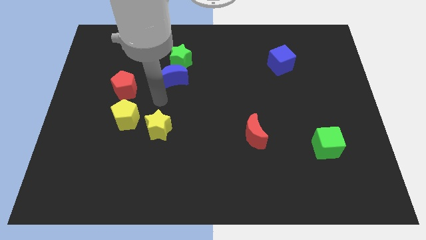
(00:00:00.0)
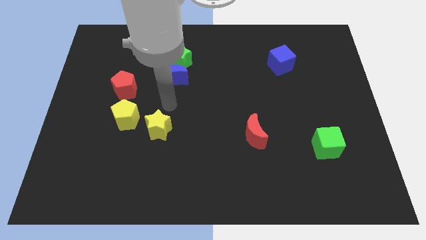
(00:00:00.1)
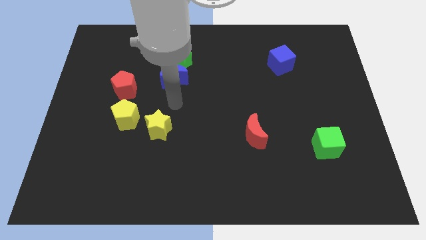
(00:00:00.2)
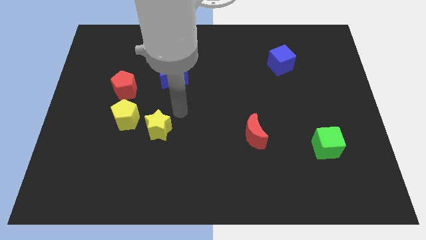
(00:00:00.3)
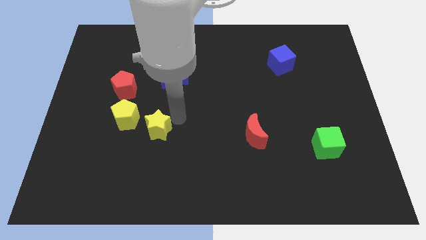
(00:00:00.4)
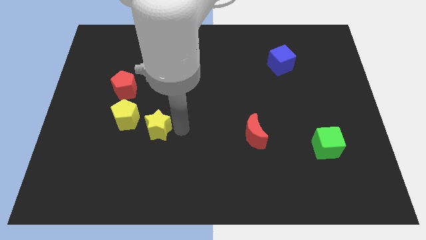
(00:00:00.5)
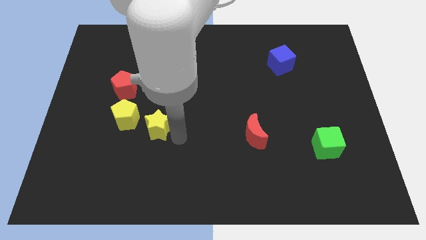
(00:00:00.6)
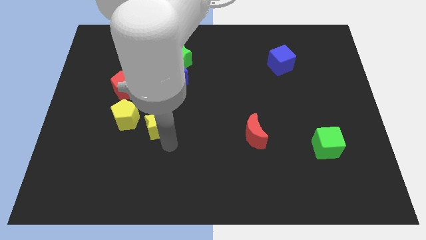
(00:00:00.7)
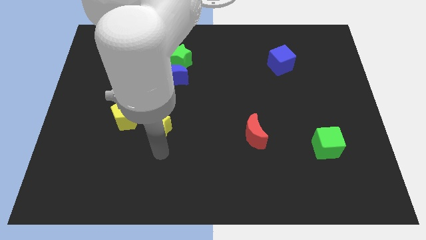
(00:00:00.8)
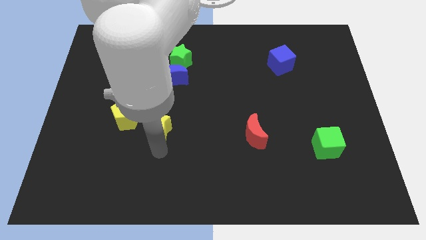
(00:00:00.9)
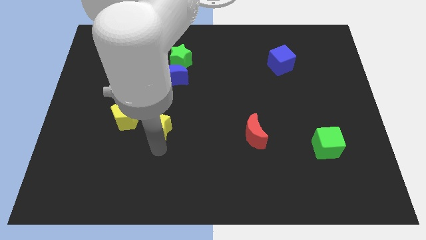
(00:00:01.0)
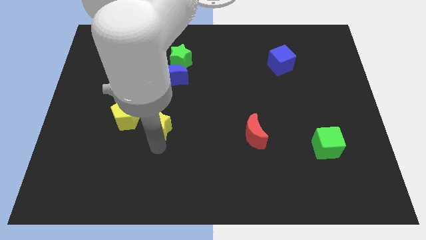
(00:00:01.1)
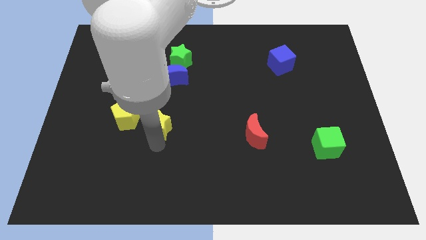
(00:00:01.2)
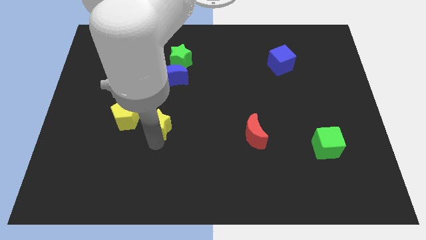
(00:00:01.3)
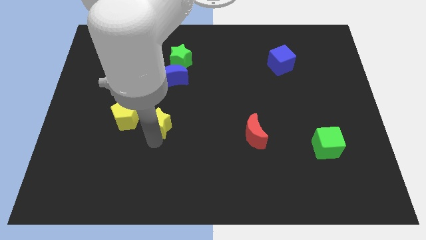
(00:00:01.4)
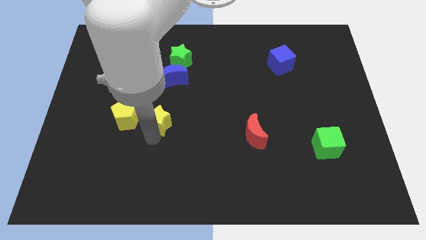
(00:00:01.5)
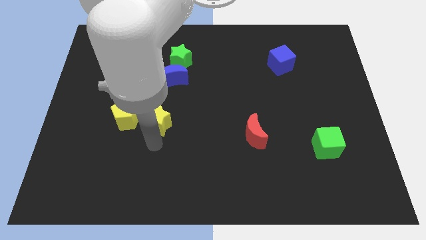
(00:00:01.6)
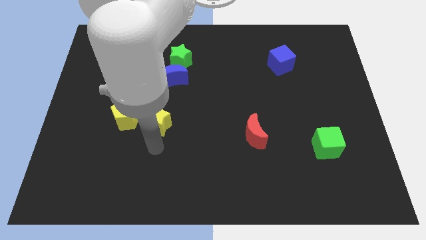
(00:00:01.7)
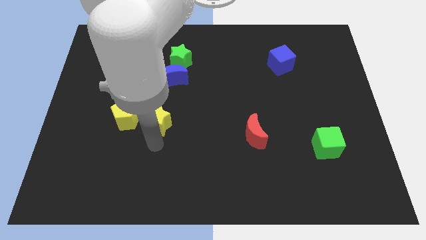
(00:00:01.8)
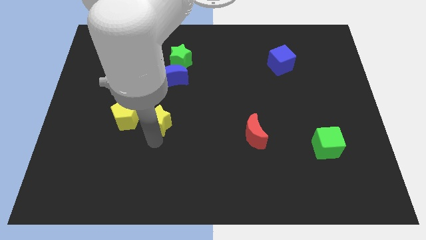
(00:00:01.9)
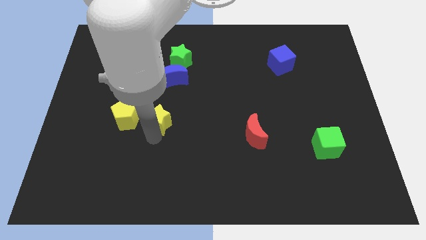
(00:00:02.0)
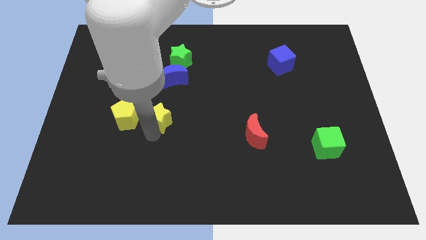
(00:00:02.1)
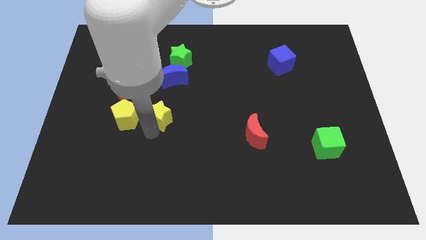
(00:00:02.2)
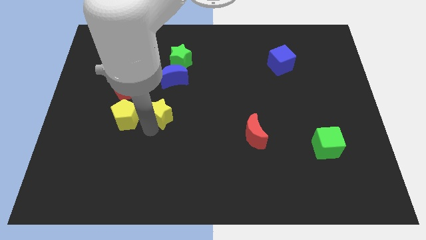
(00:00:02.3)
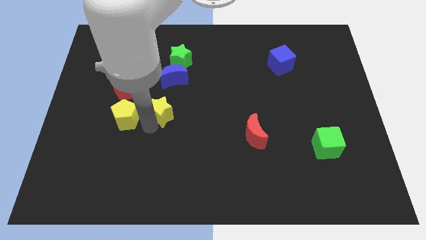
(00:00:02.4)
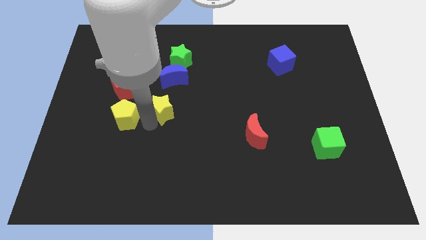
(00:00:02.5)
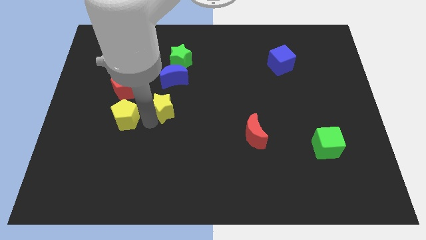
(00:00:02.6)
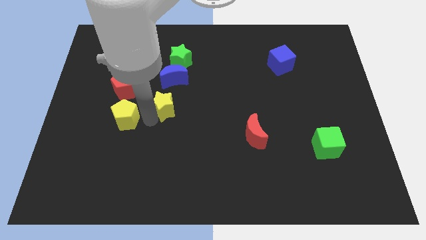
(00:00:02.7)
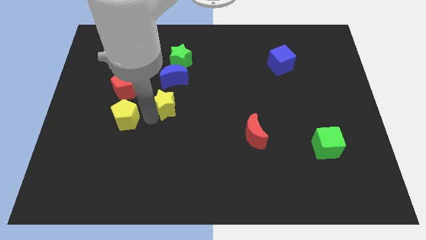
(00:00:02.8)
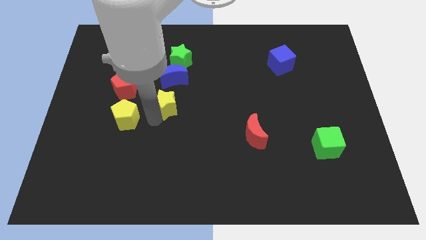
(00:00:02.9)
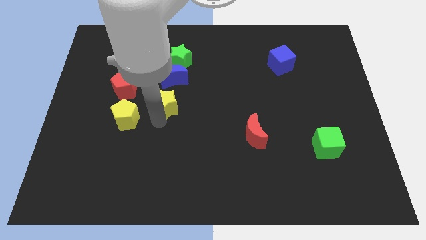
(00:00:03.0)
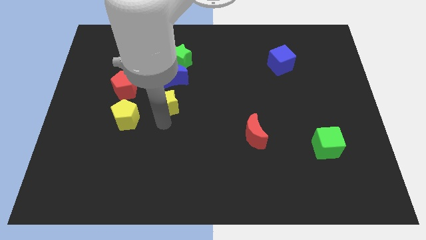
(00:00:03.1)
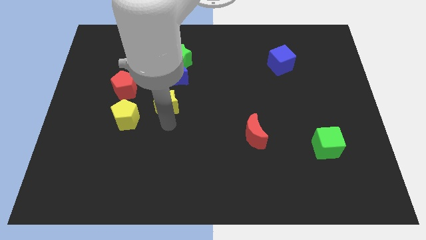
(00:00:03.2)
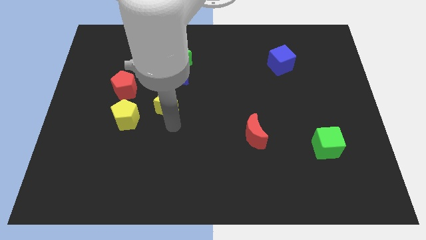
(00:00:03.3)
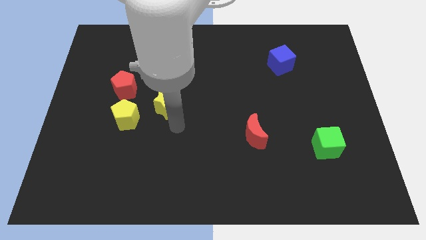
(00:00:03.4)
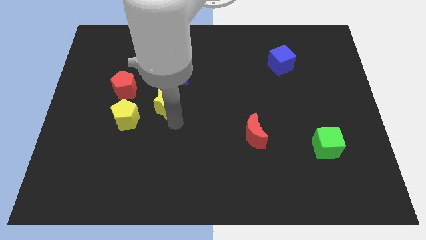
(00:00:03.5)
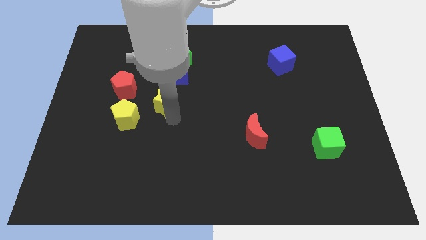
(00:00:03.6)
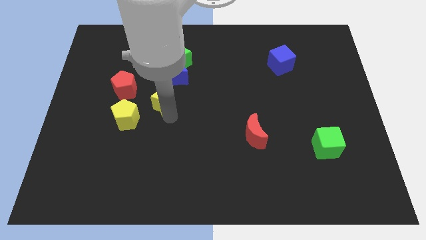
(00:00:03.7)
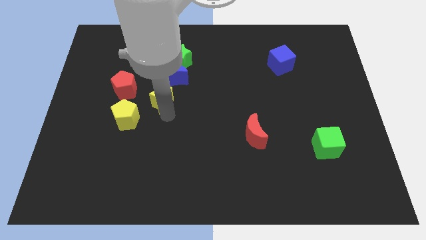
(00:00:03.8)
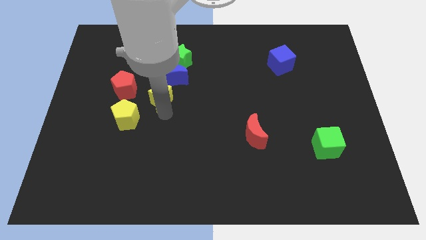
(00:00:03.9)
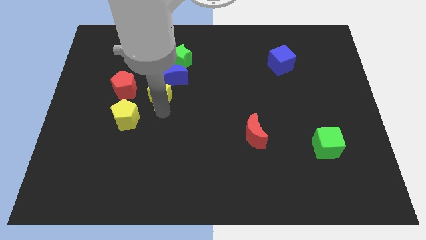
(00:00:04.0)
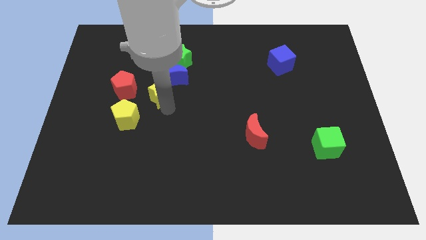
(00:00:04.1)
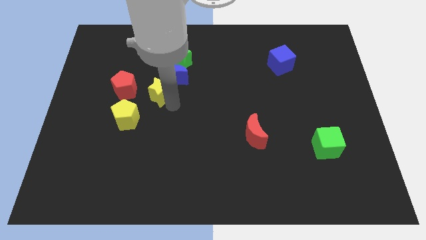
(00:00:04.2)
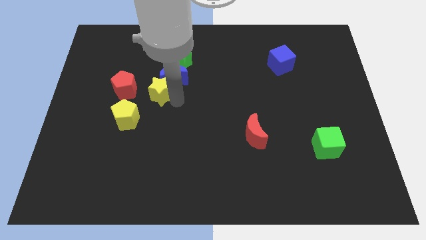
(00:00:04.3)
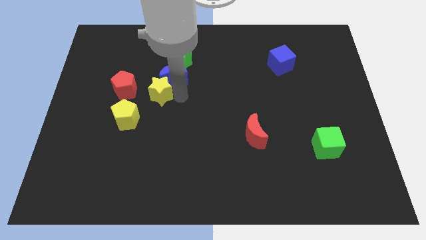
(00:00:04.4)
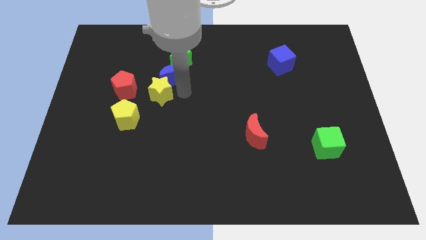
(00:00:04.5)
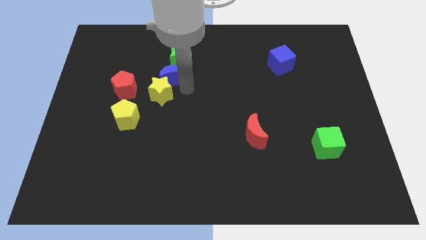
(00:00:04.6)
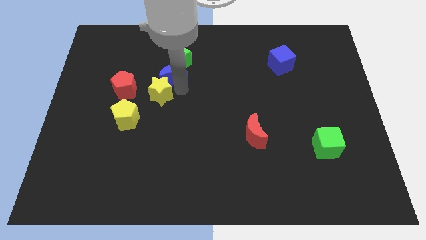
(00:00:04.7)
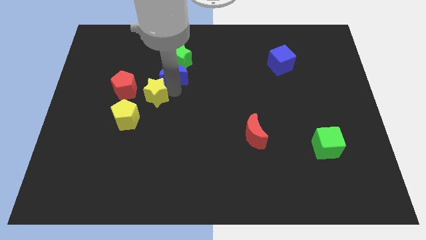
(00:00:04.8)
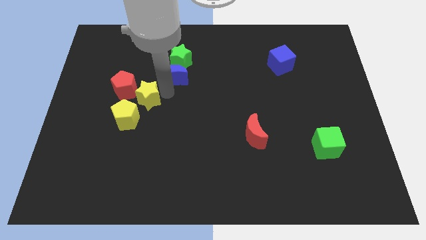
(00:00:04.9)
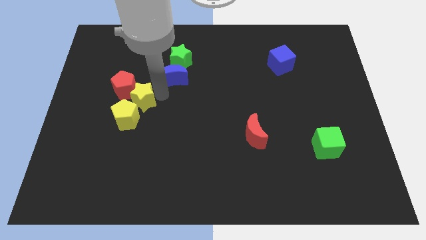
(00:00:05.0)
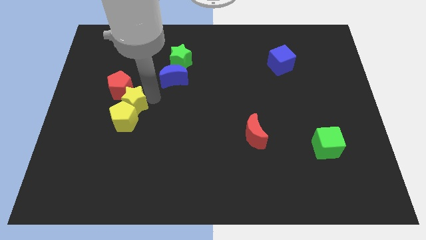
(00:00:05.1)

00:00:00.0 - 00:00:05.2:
move the yellow star to the top left of the yellow pentagon

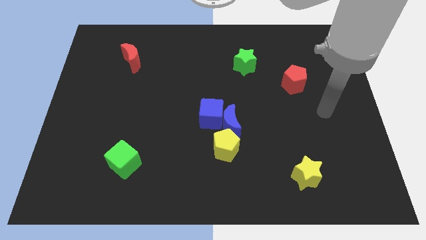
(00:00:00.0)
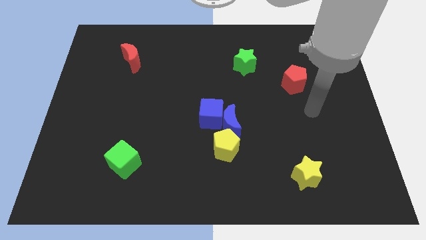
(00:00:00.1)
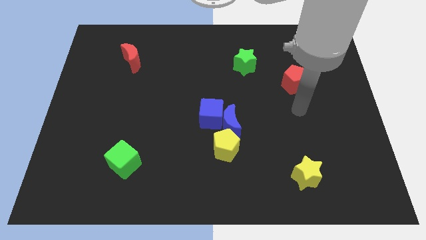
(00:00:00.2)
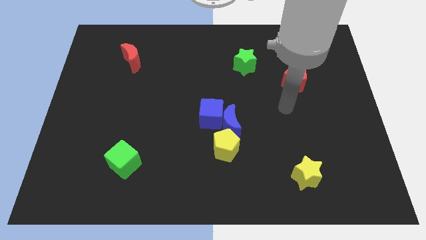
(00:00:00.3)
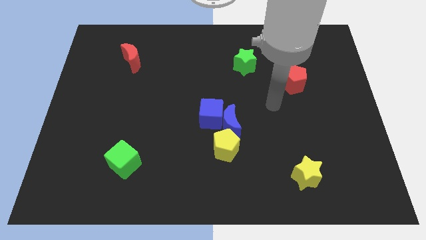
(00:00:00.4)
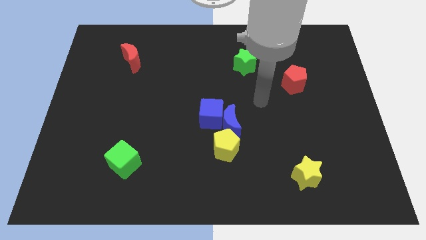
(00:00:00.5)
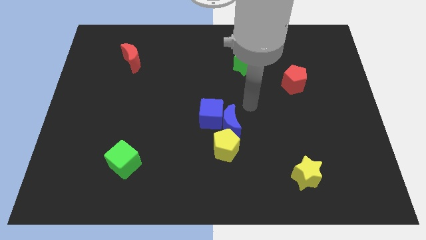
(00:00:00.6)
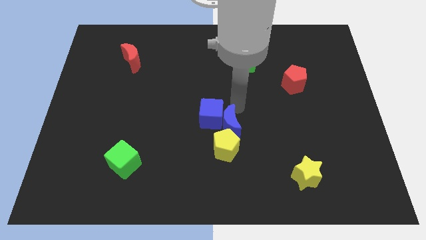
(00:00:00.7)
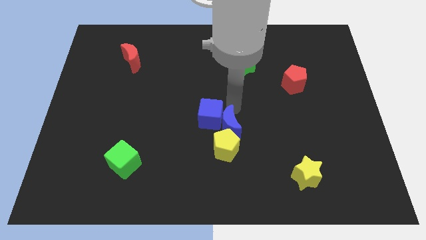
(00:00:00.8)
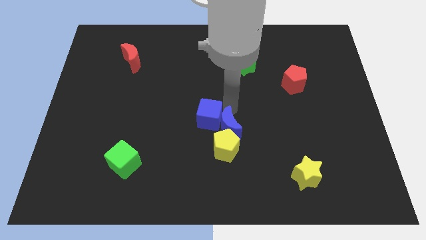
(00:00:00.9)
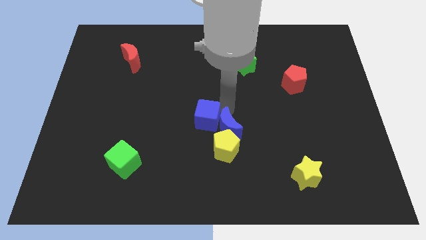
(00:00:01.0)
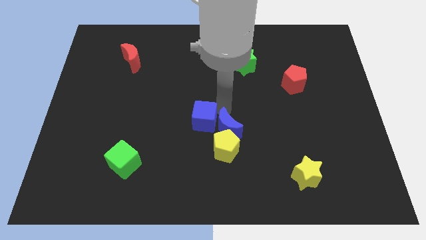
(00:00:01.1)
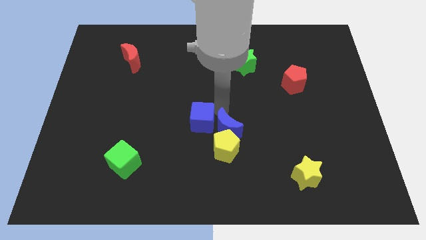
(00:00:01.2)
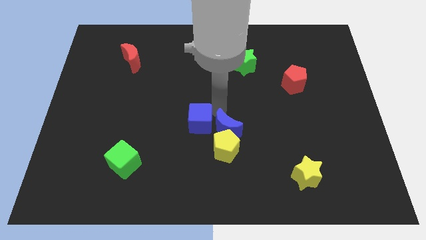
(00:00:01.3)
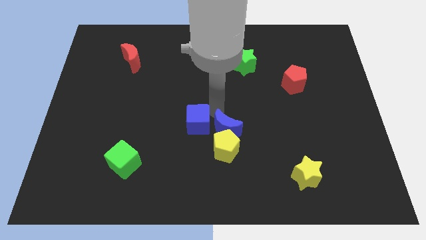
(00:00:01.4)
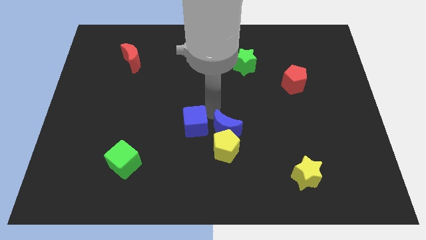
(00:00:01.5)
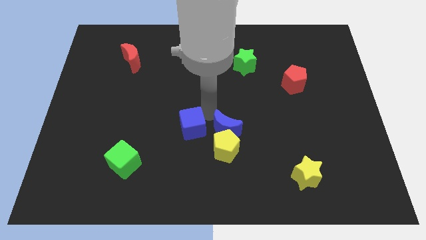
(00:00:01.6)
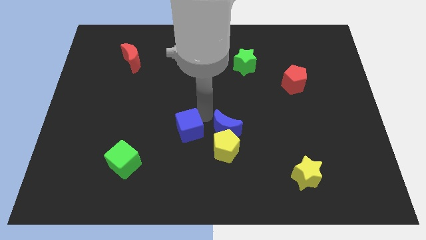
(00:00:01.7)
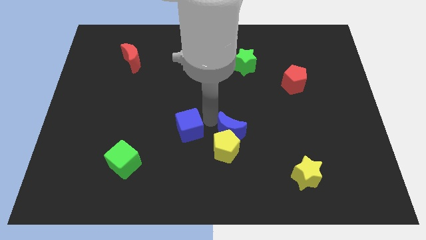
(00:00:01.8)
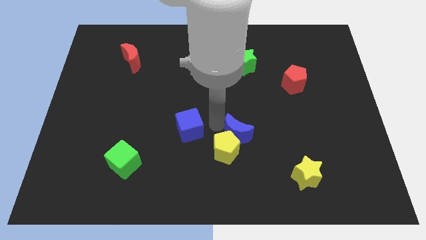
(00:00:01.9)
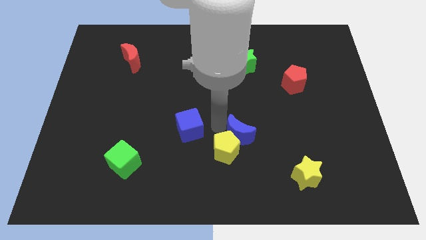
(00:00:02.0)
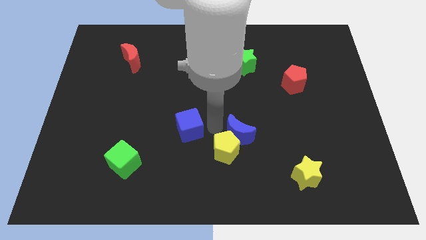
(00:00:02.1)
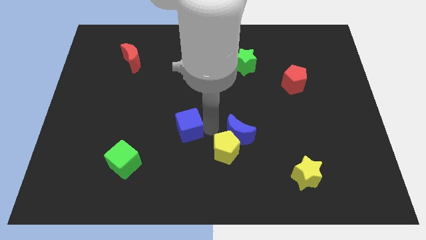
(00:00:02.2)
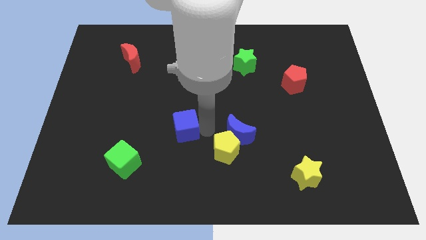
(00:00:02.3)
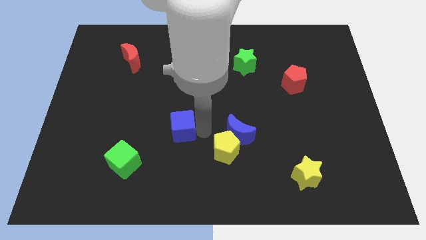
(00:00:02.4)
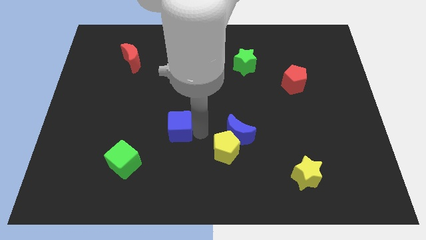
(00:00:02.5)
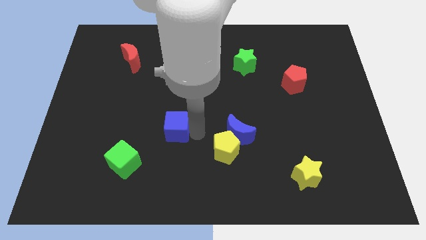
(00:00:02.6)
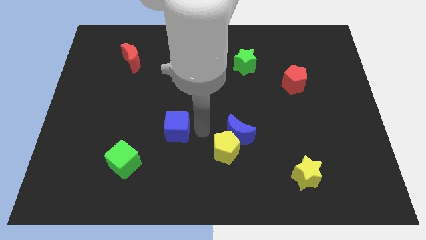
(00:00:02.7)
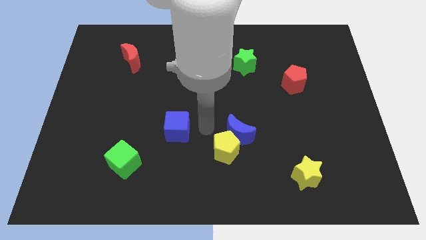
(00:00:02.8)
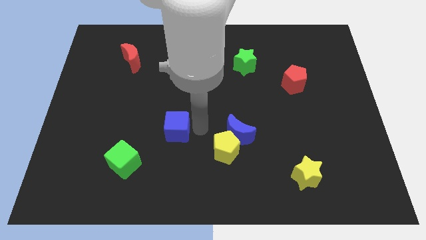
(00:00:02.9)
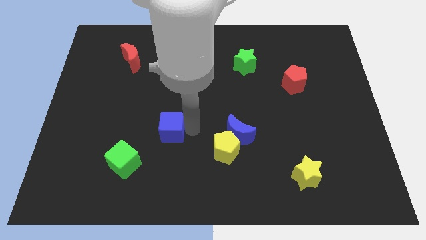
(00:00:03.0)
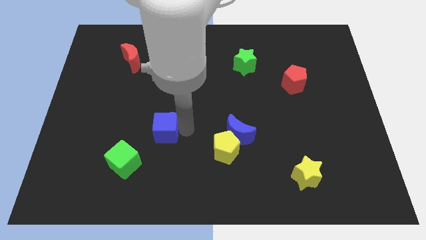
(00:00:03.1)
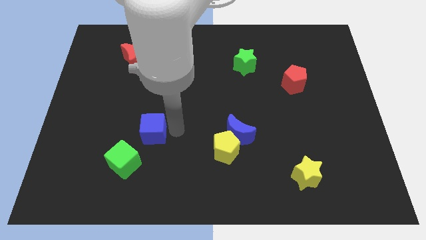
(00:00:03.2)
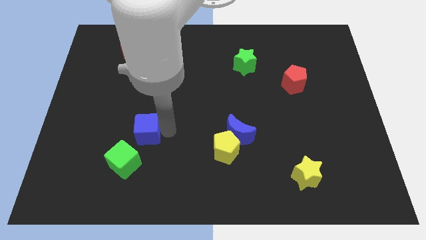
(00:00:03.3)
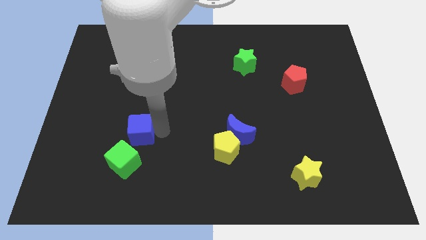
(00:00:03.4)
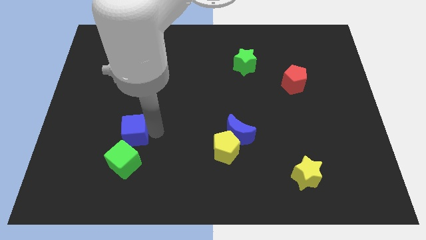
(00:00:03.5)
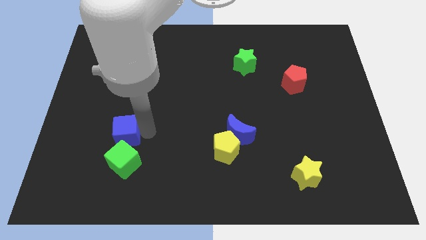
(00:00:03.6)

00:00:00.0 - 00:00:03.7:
slide the blue cube to the top left of the green cube
